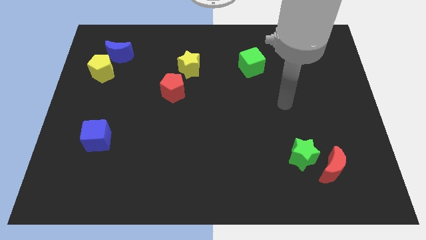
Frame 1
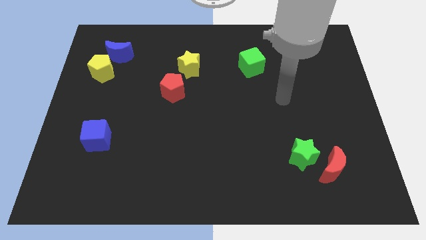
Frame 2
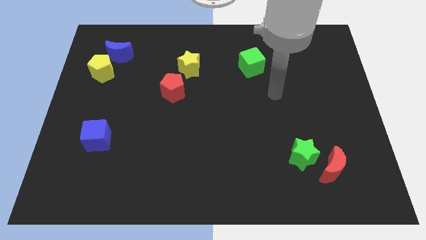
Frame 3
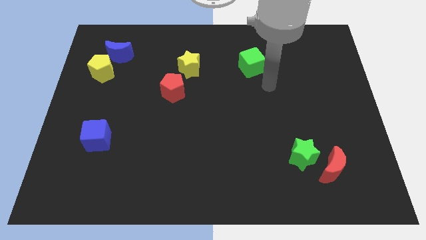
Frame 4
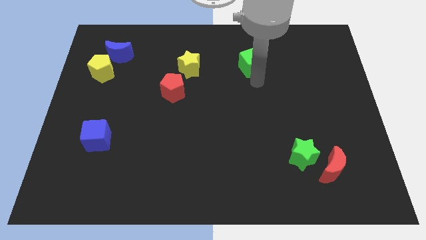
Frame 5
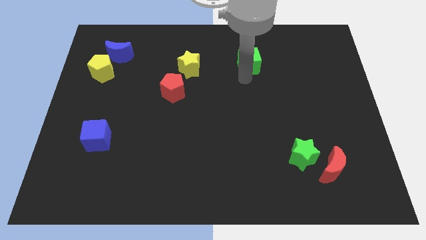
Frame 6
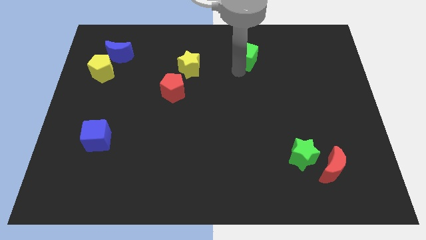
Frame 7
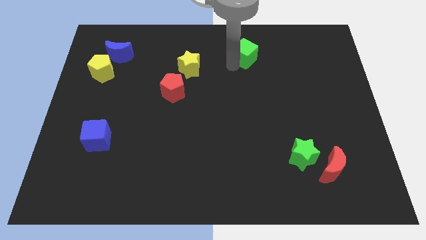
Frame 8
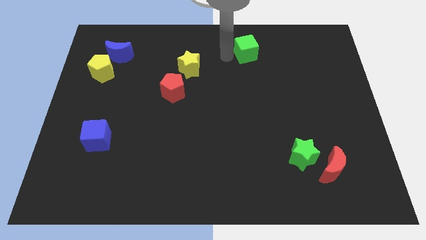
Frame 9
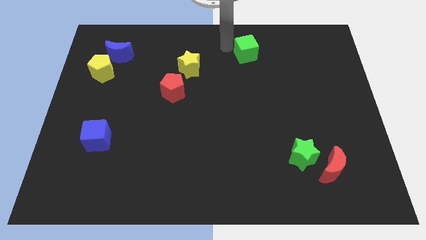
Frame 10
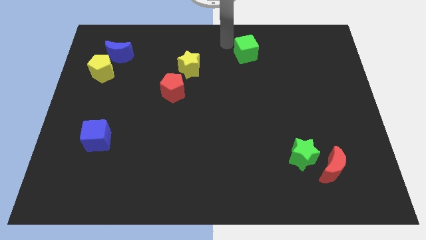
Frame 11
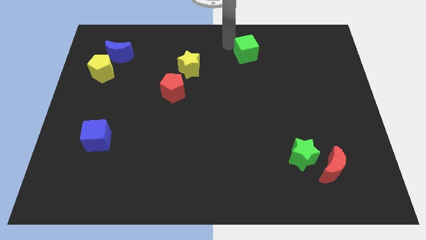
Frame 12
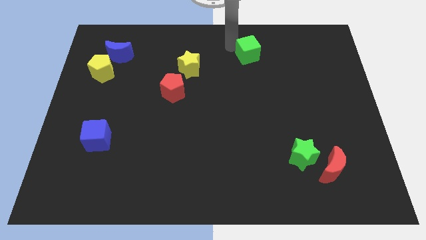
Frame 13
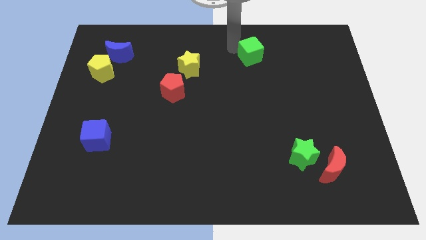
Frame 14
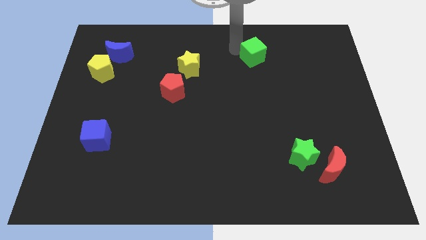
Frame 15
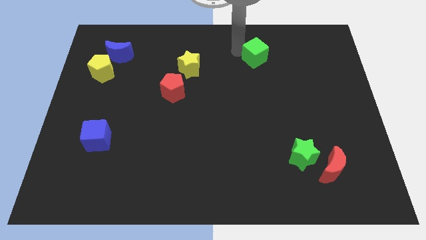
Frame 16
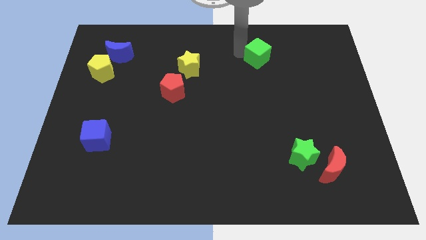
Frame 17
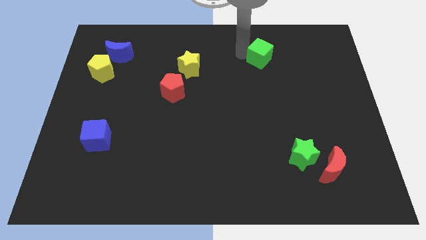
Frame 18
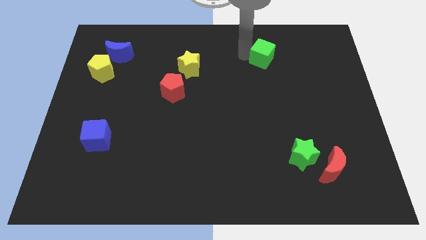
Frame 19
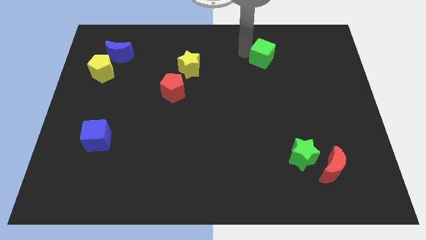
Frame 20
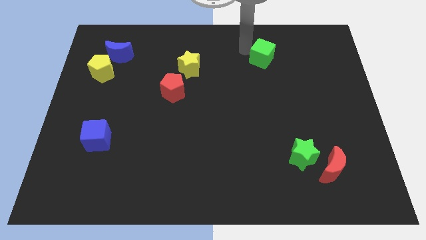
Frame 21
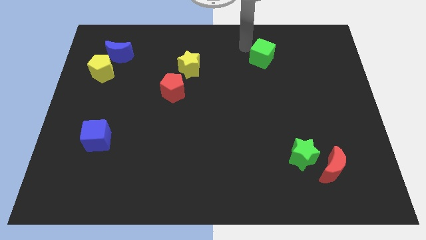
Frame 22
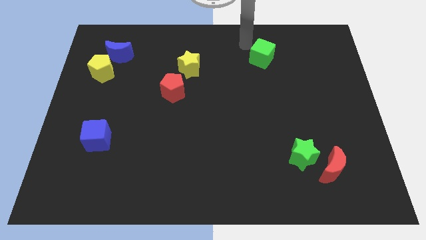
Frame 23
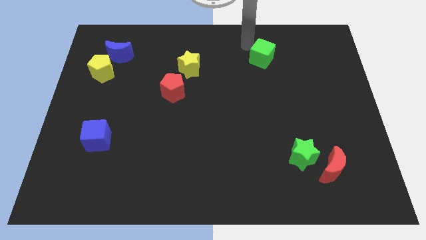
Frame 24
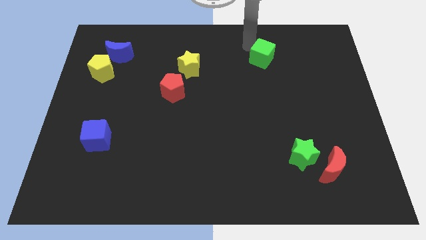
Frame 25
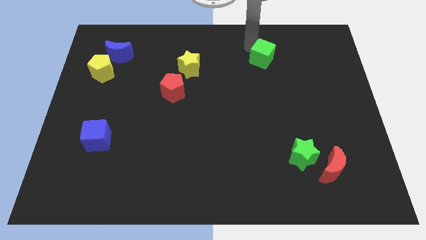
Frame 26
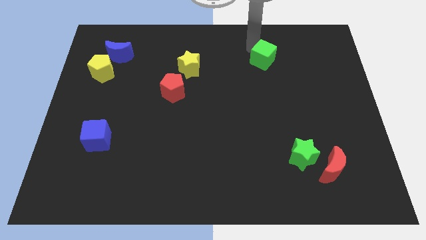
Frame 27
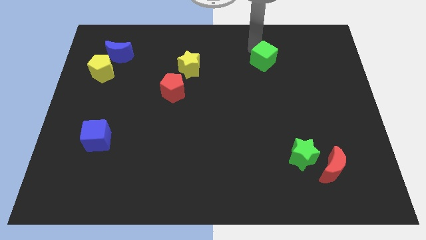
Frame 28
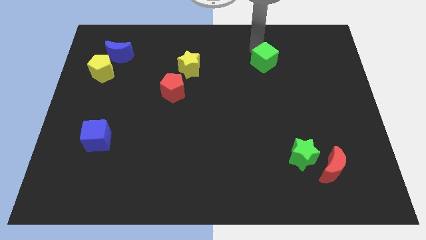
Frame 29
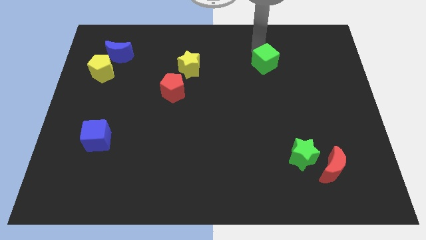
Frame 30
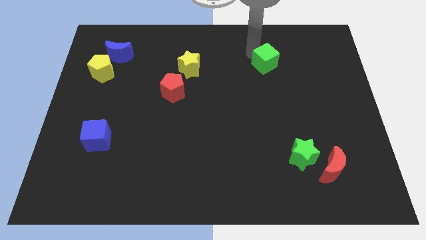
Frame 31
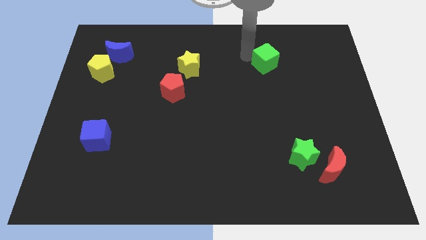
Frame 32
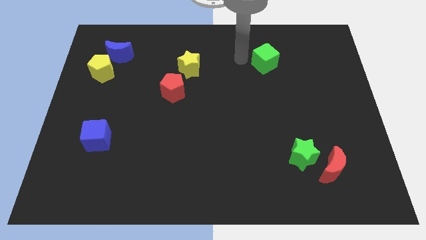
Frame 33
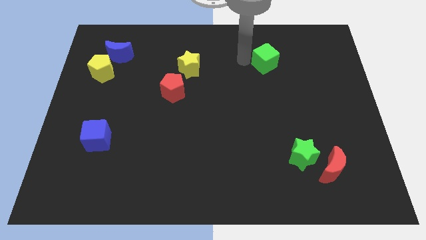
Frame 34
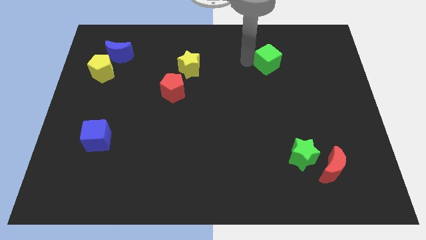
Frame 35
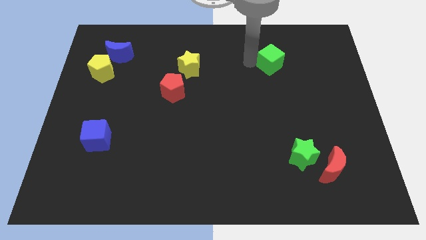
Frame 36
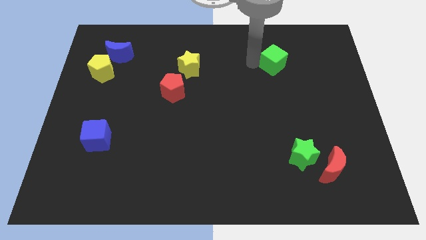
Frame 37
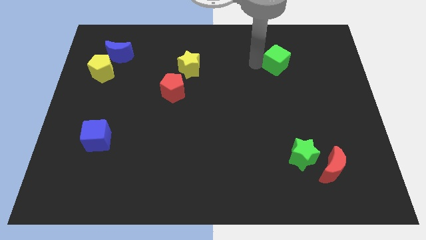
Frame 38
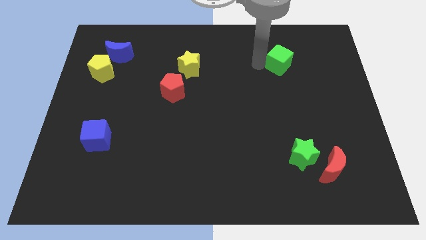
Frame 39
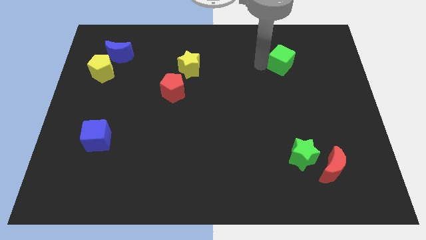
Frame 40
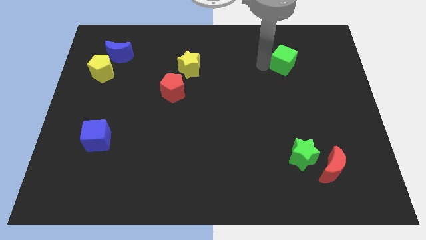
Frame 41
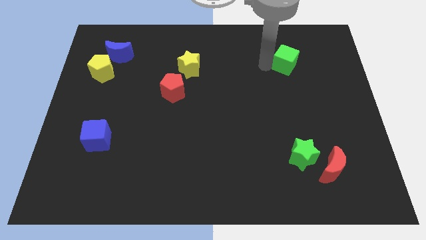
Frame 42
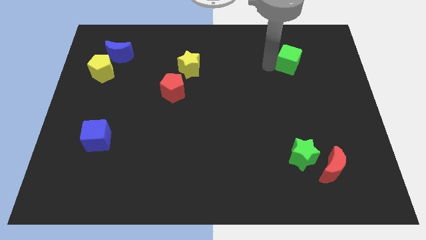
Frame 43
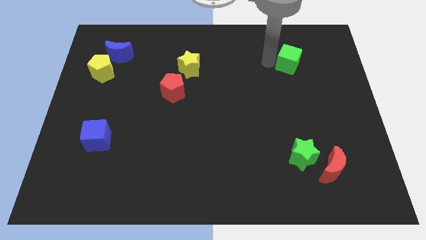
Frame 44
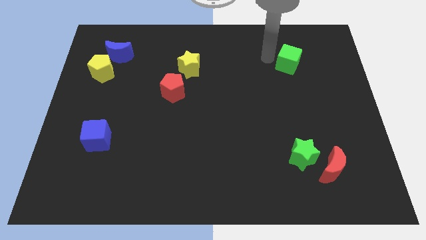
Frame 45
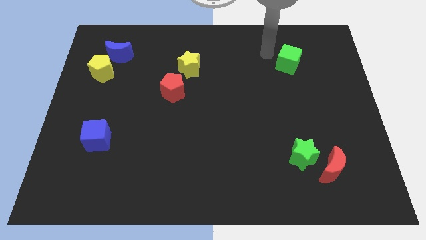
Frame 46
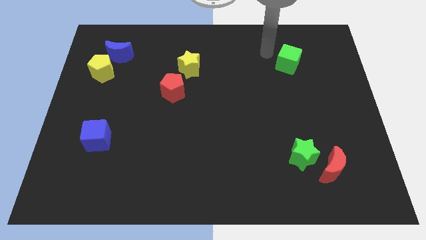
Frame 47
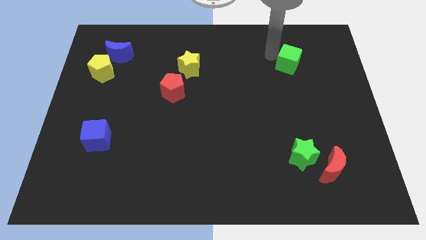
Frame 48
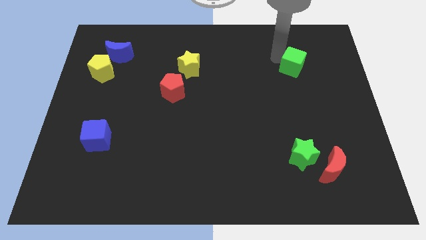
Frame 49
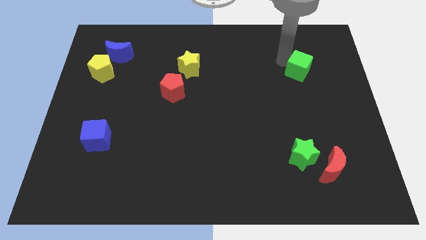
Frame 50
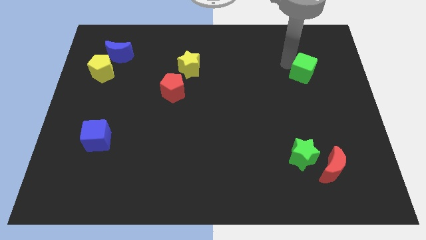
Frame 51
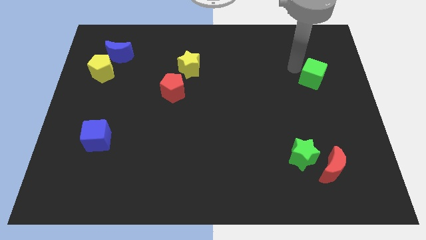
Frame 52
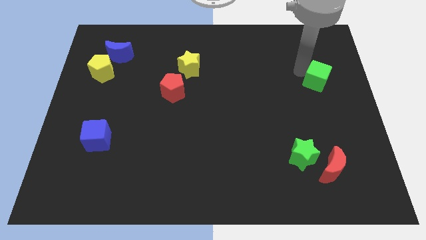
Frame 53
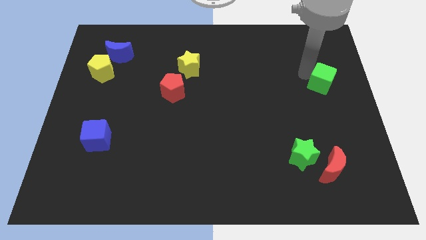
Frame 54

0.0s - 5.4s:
put the green cube to the right side

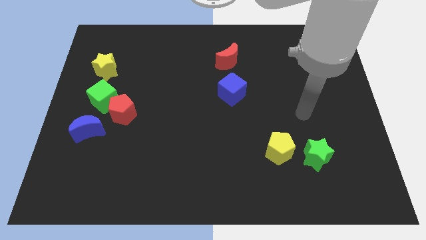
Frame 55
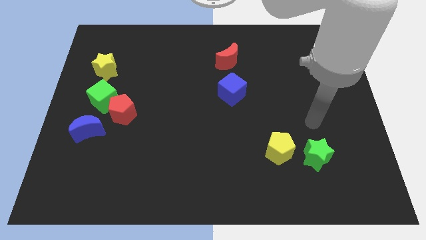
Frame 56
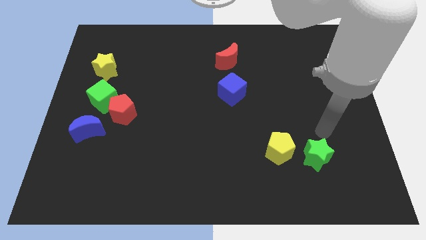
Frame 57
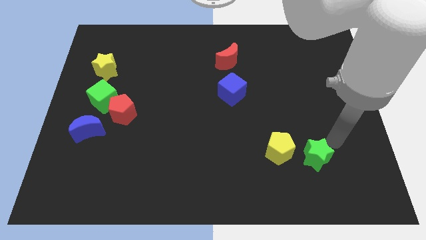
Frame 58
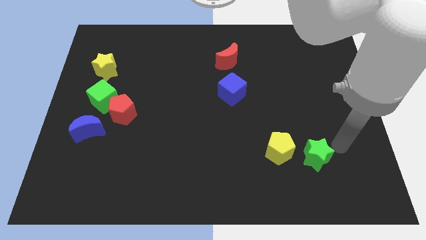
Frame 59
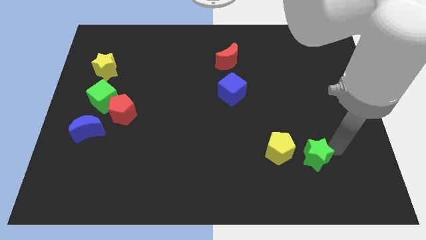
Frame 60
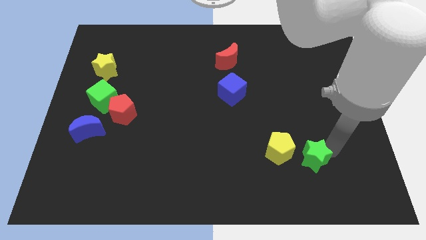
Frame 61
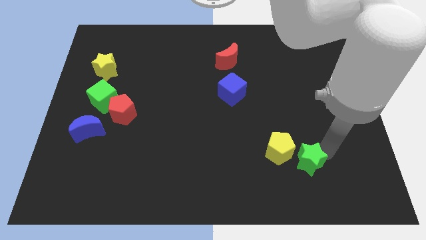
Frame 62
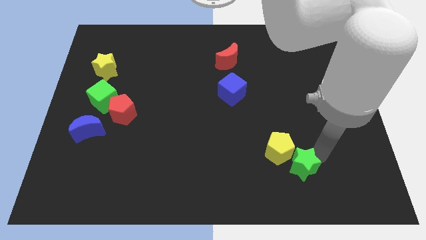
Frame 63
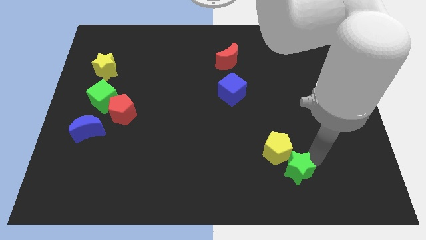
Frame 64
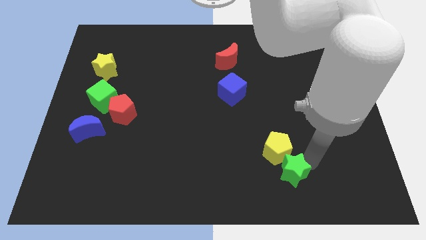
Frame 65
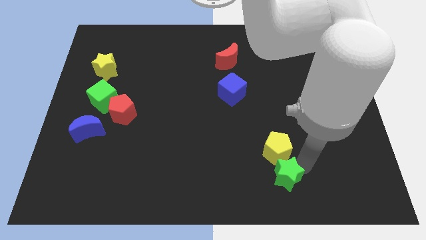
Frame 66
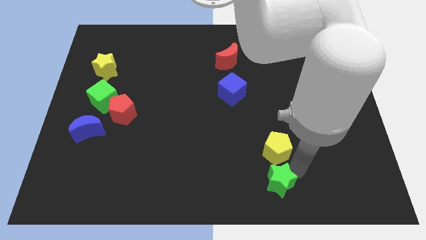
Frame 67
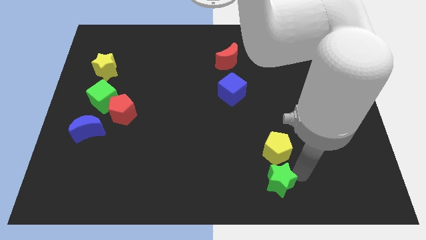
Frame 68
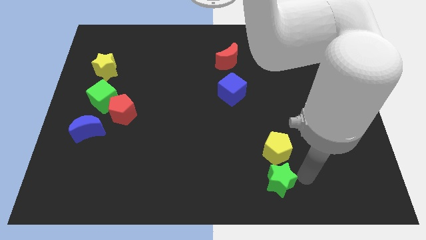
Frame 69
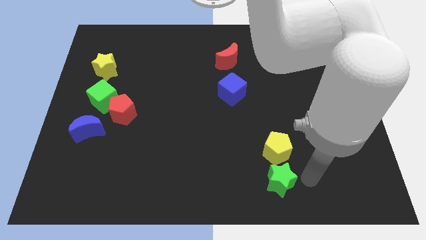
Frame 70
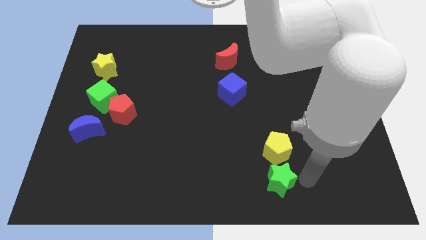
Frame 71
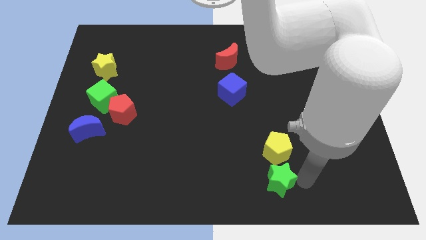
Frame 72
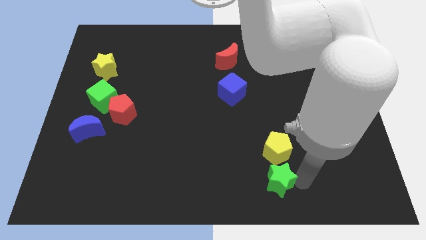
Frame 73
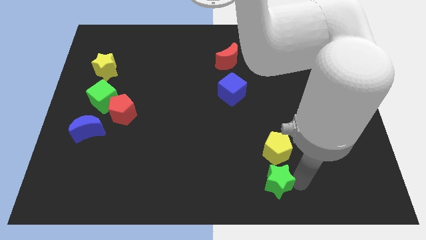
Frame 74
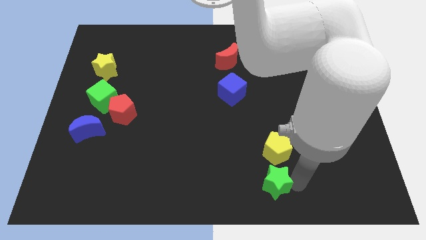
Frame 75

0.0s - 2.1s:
move the green star to the bottom
